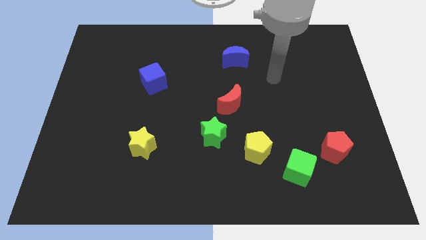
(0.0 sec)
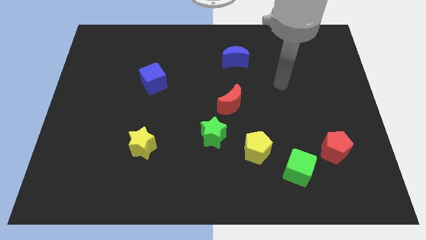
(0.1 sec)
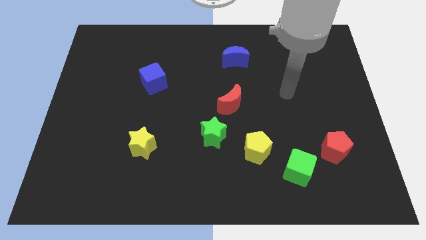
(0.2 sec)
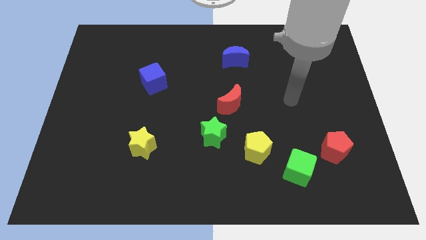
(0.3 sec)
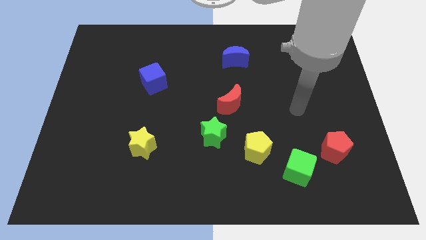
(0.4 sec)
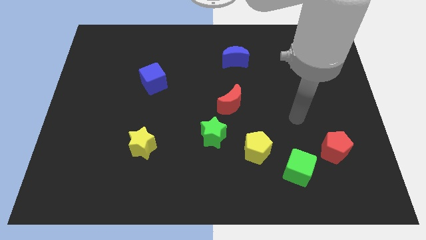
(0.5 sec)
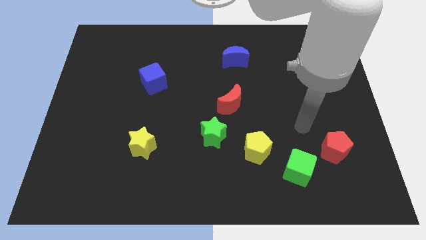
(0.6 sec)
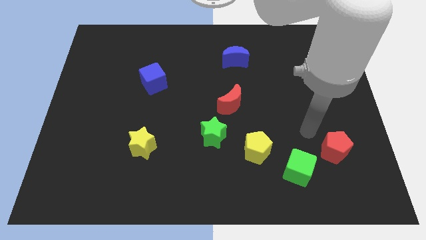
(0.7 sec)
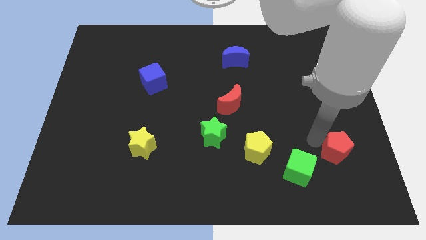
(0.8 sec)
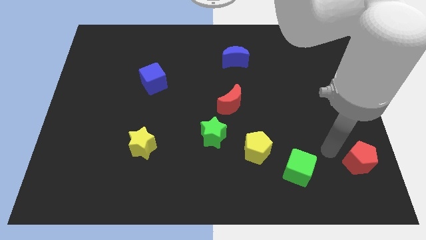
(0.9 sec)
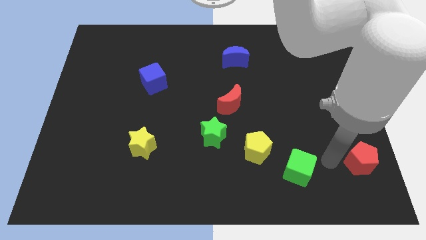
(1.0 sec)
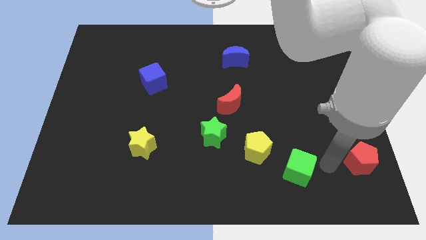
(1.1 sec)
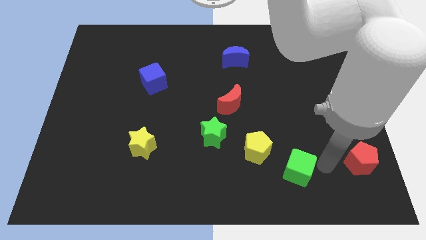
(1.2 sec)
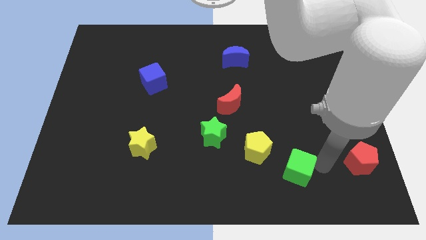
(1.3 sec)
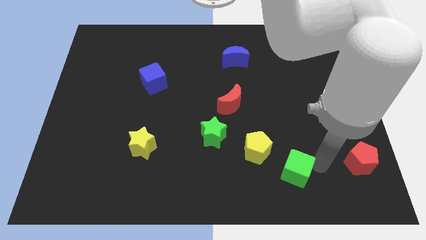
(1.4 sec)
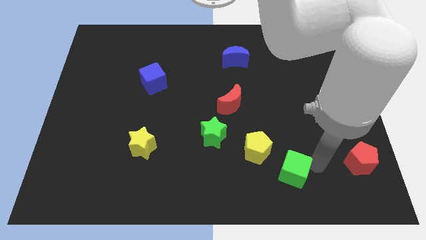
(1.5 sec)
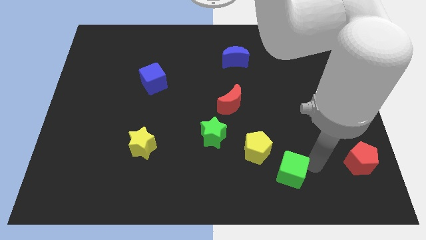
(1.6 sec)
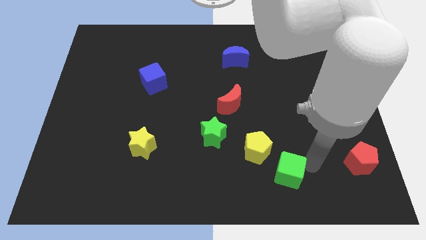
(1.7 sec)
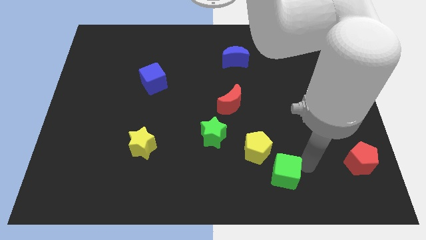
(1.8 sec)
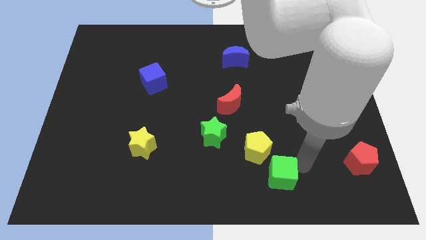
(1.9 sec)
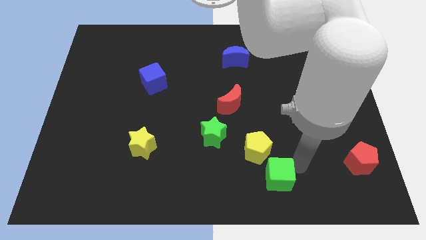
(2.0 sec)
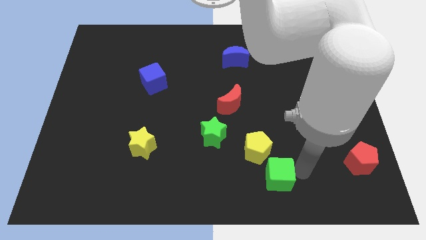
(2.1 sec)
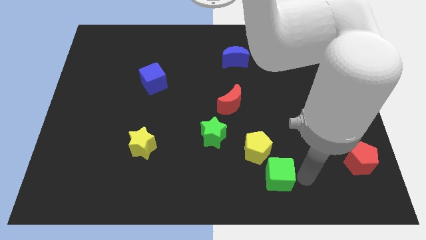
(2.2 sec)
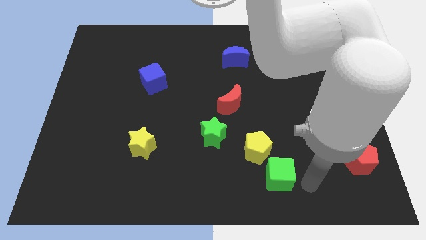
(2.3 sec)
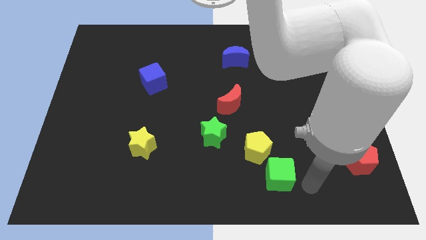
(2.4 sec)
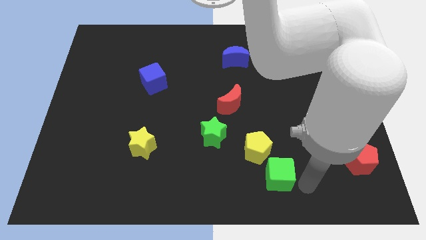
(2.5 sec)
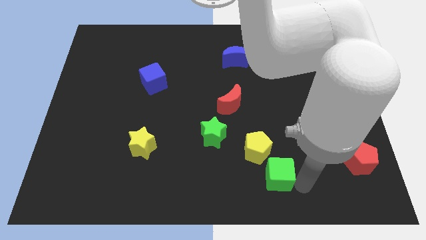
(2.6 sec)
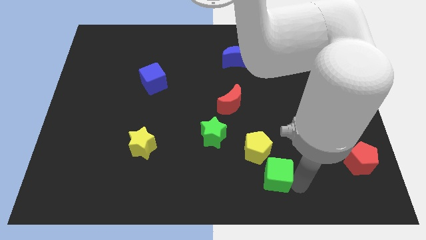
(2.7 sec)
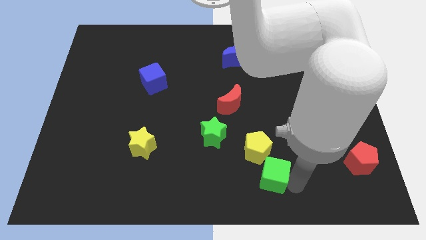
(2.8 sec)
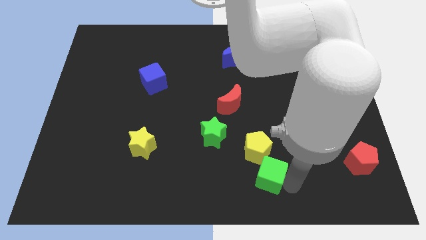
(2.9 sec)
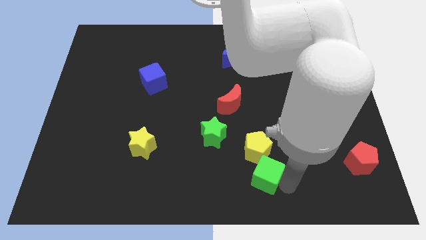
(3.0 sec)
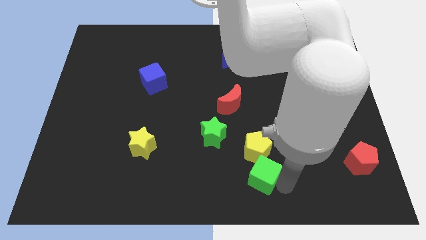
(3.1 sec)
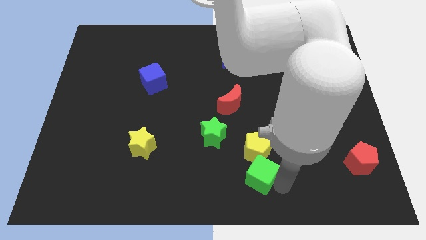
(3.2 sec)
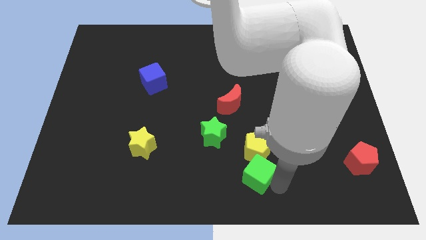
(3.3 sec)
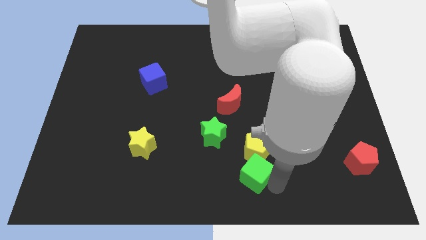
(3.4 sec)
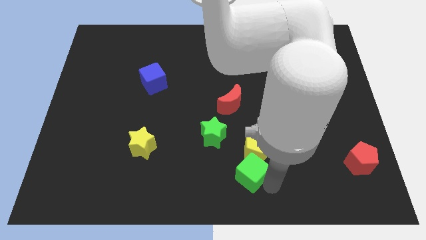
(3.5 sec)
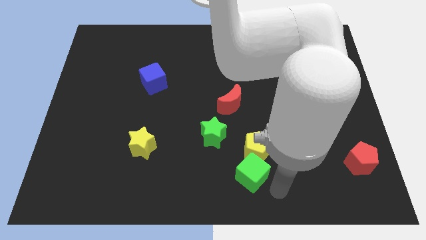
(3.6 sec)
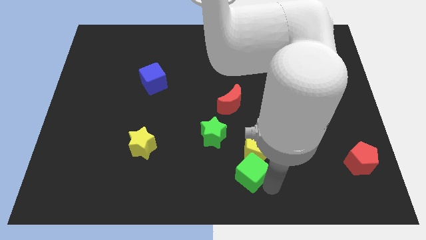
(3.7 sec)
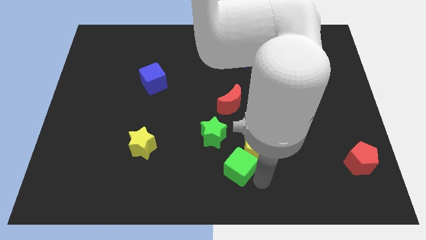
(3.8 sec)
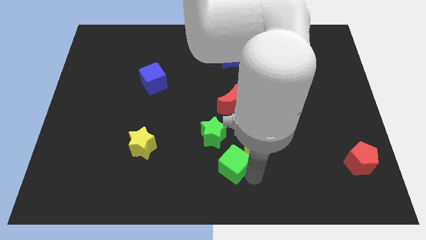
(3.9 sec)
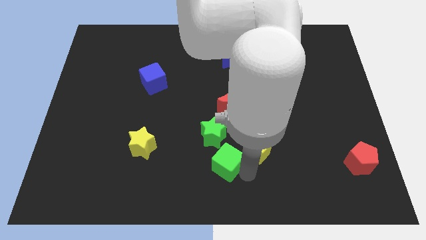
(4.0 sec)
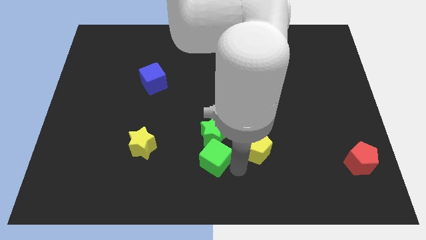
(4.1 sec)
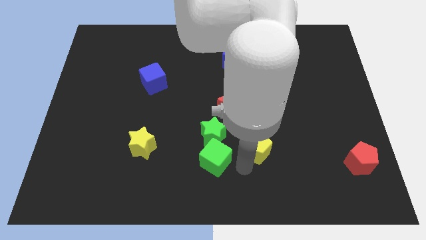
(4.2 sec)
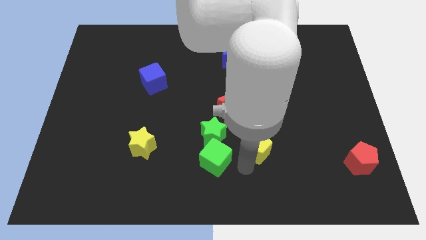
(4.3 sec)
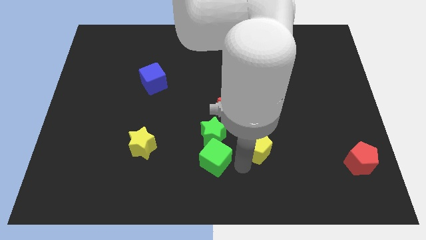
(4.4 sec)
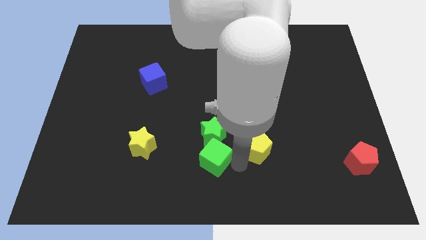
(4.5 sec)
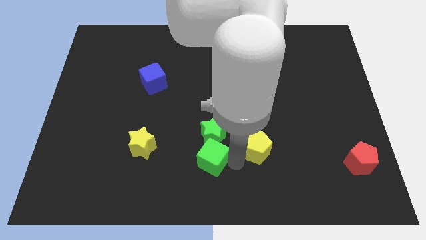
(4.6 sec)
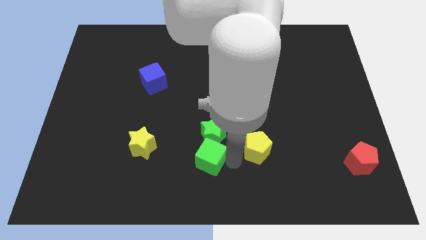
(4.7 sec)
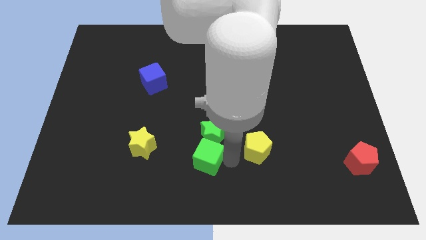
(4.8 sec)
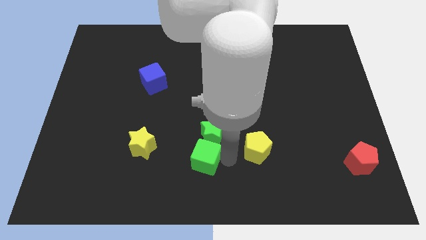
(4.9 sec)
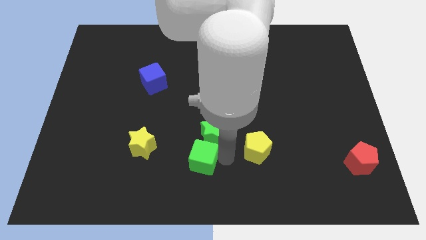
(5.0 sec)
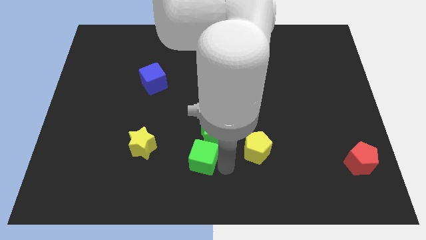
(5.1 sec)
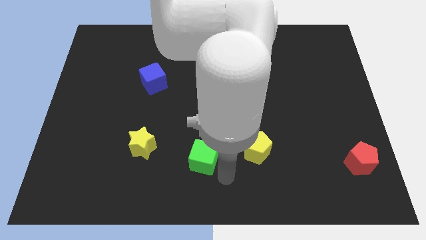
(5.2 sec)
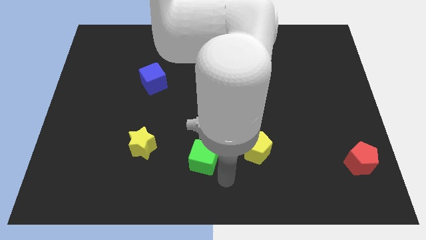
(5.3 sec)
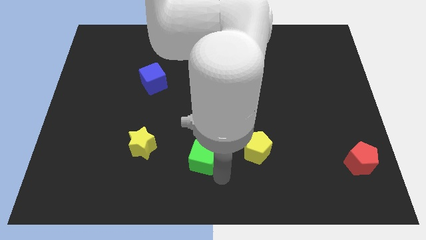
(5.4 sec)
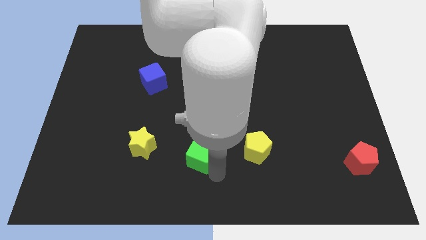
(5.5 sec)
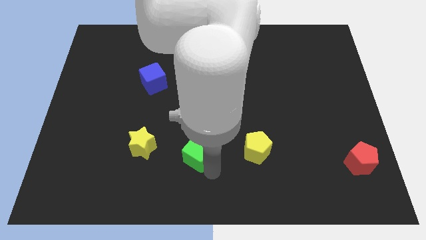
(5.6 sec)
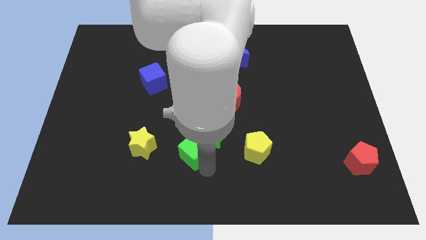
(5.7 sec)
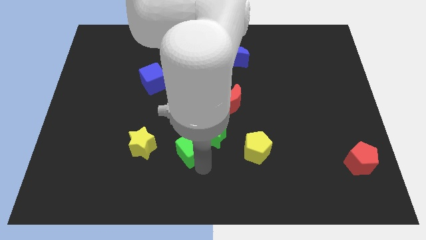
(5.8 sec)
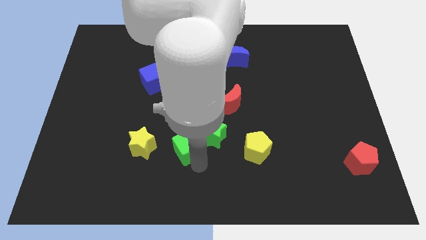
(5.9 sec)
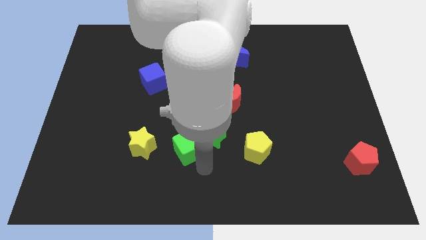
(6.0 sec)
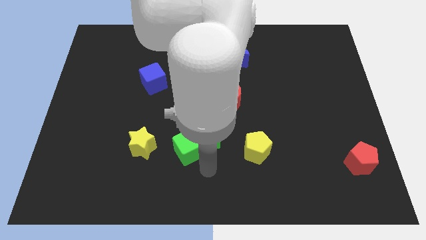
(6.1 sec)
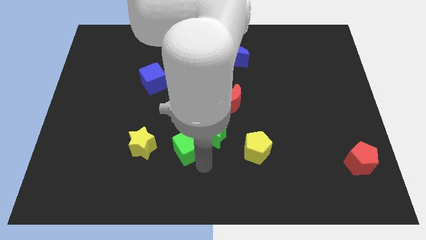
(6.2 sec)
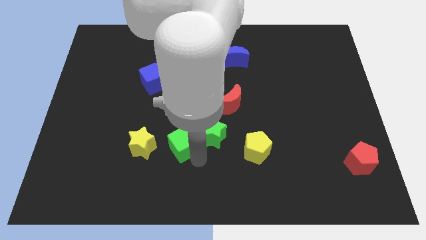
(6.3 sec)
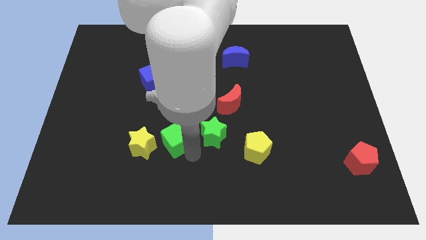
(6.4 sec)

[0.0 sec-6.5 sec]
put the green cube diagonally up and to the right of the yellow star

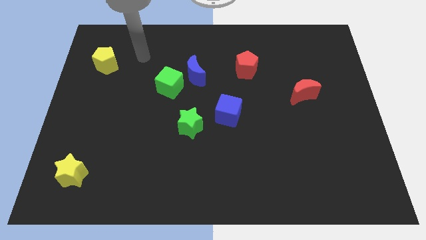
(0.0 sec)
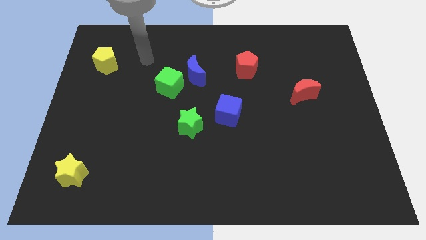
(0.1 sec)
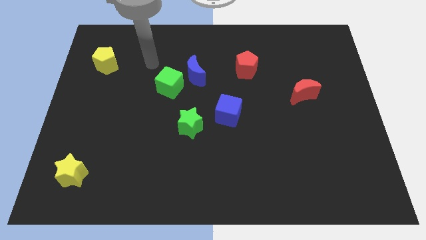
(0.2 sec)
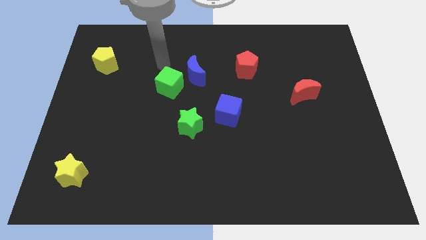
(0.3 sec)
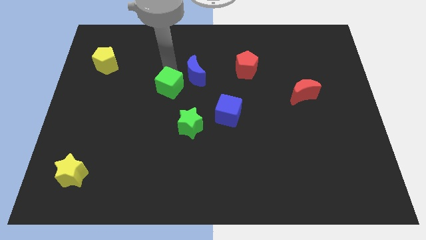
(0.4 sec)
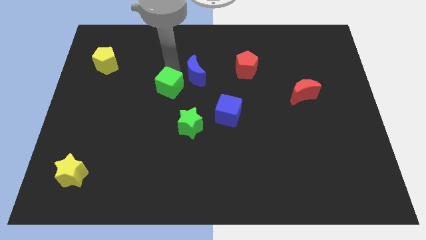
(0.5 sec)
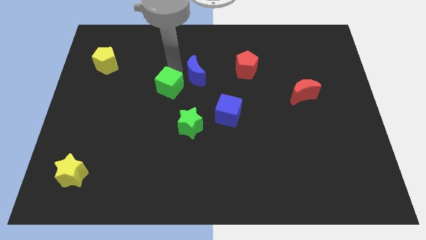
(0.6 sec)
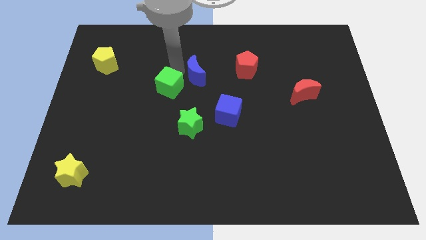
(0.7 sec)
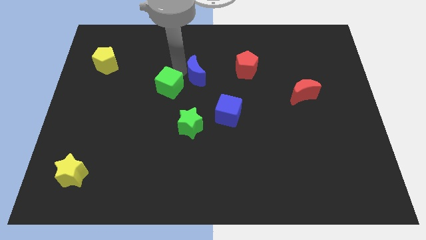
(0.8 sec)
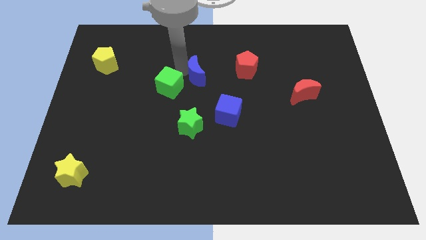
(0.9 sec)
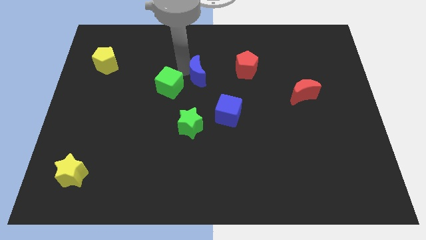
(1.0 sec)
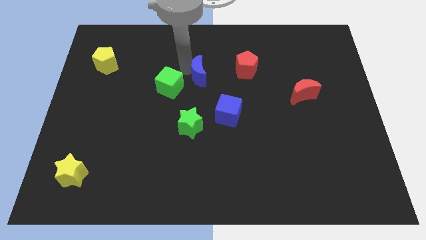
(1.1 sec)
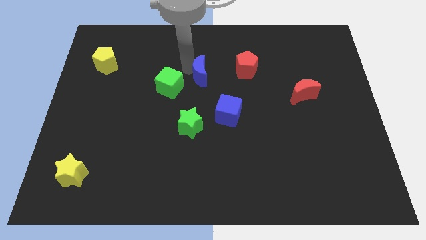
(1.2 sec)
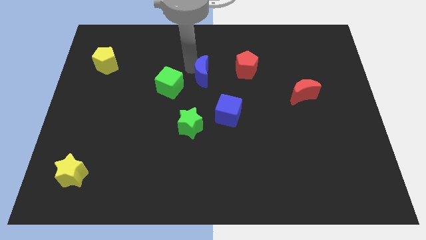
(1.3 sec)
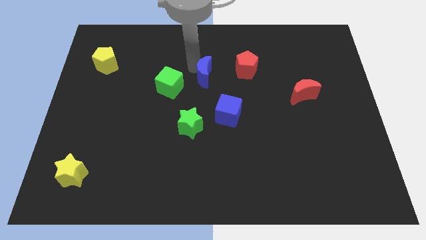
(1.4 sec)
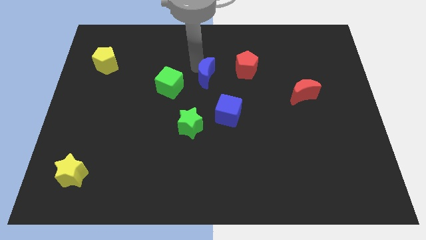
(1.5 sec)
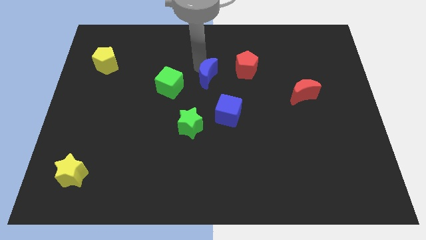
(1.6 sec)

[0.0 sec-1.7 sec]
push the blue moon above the blue cube
